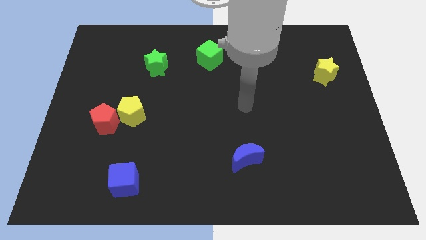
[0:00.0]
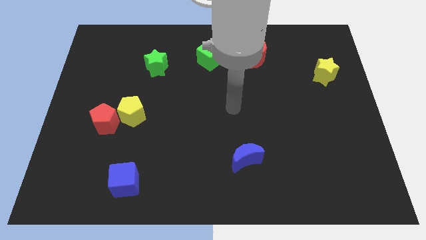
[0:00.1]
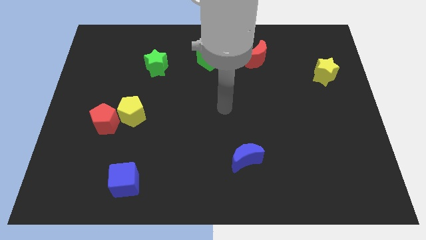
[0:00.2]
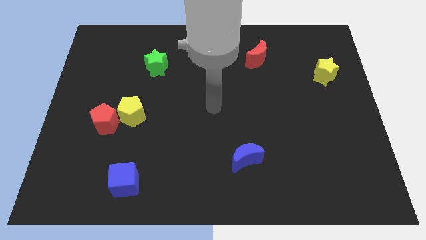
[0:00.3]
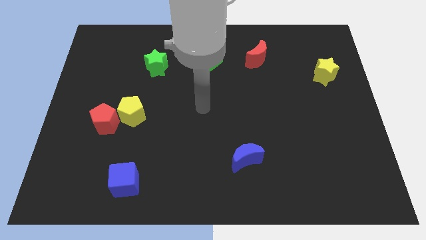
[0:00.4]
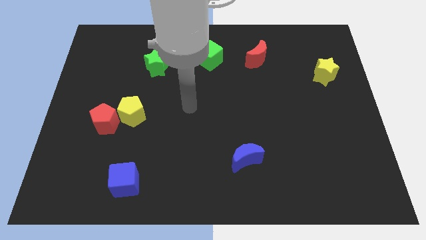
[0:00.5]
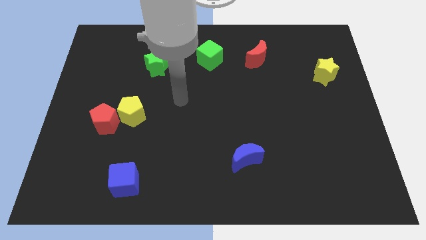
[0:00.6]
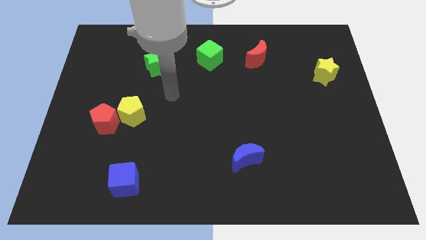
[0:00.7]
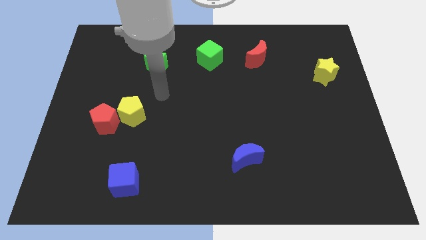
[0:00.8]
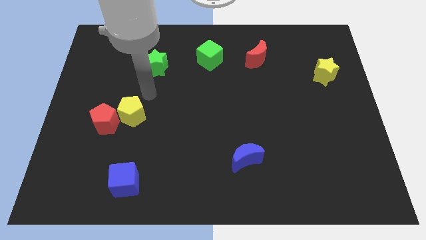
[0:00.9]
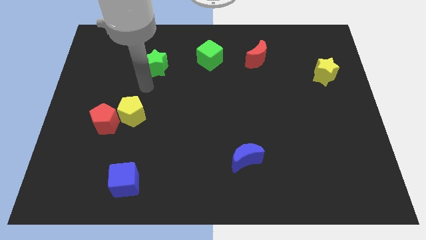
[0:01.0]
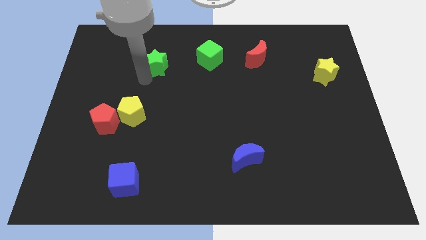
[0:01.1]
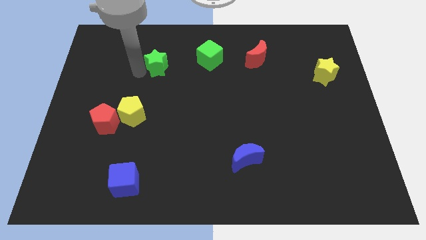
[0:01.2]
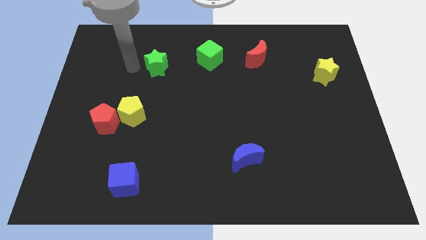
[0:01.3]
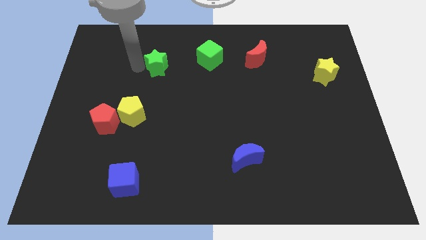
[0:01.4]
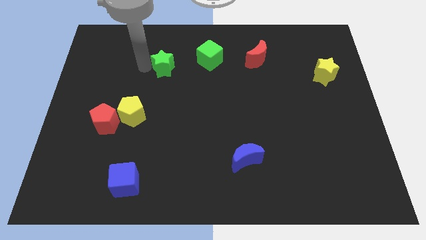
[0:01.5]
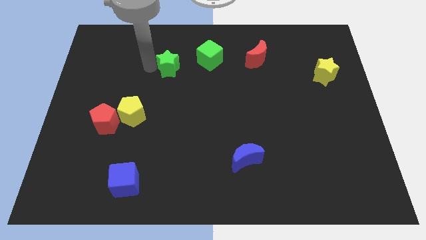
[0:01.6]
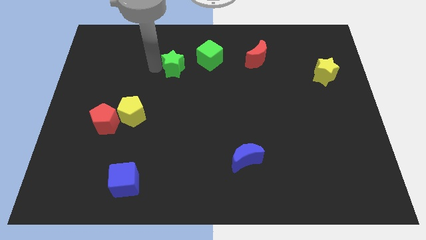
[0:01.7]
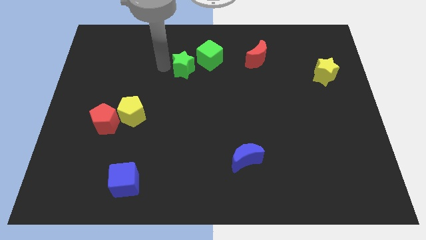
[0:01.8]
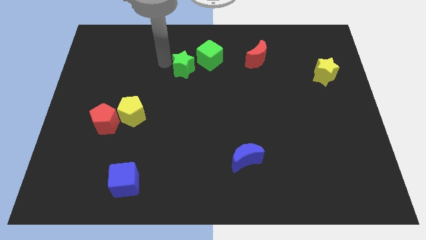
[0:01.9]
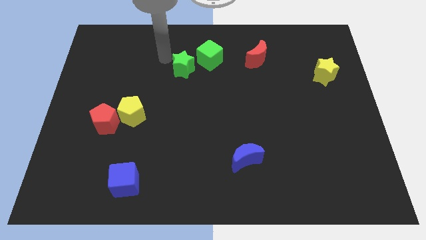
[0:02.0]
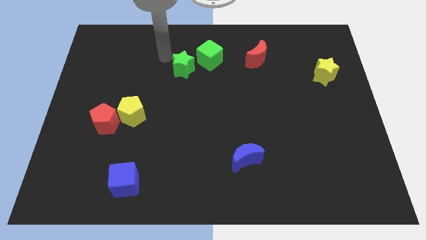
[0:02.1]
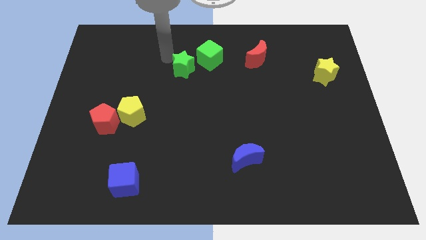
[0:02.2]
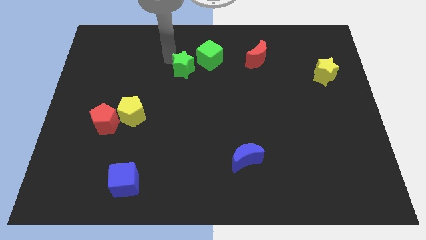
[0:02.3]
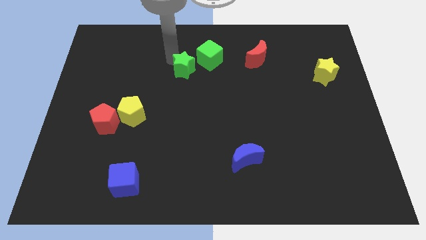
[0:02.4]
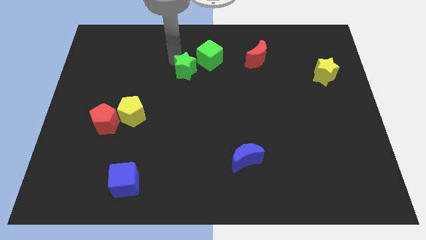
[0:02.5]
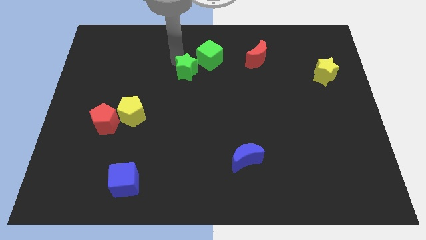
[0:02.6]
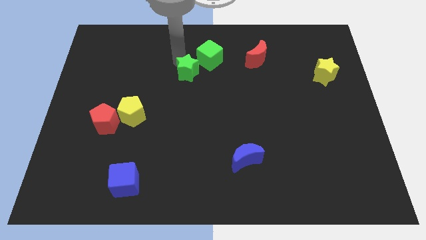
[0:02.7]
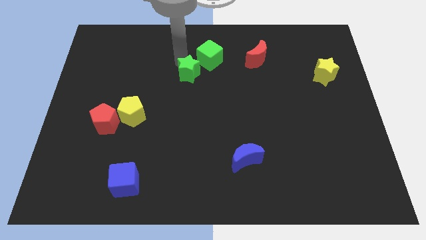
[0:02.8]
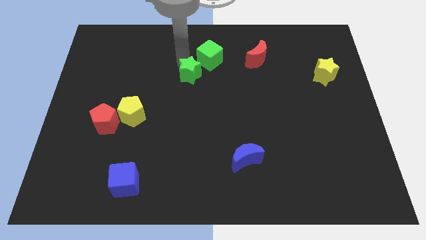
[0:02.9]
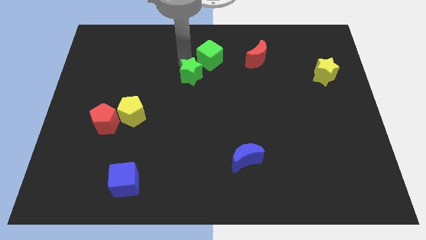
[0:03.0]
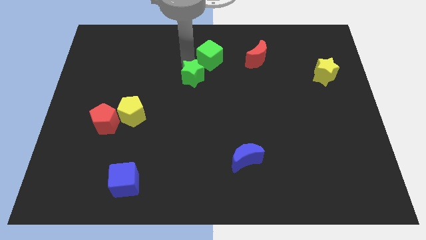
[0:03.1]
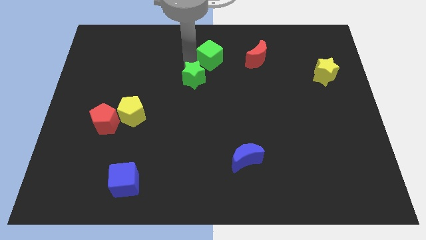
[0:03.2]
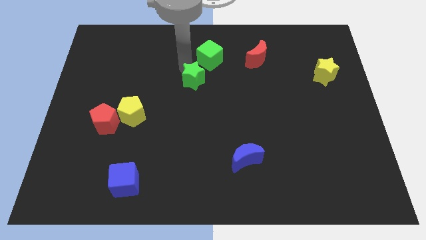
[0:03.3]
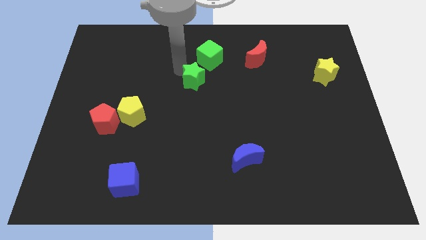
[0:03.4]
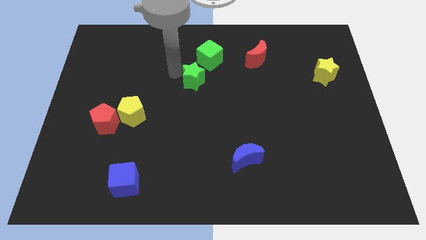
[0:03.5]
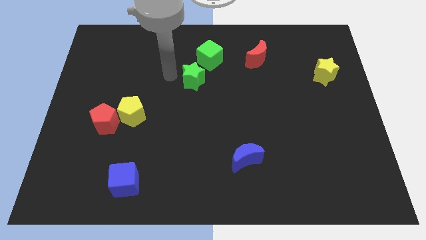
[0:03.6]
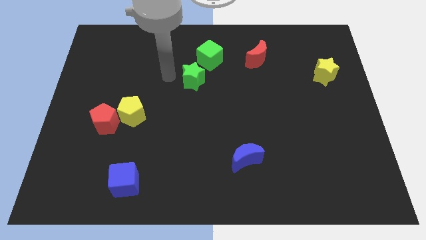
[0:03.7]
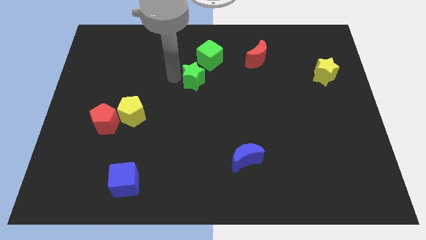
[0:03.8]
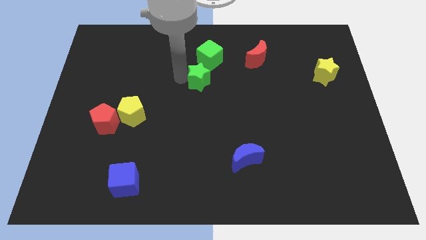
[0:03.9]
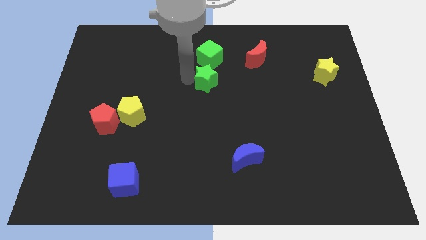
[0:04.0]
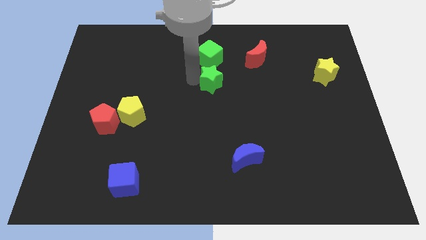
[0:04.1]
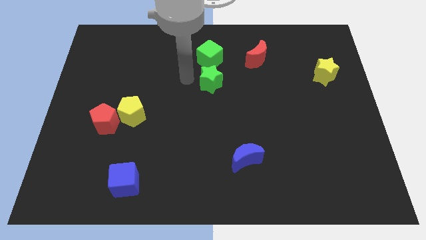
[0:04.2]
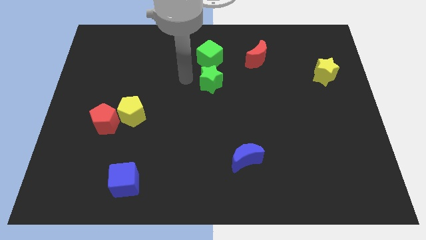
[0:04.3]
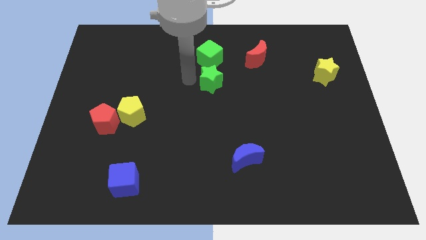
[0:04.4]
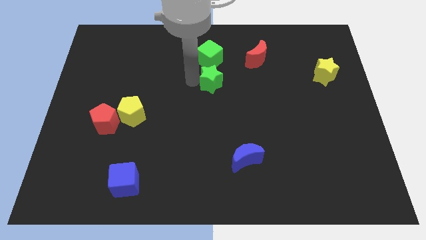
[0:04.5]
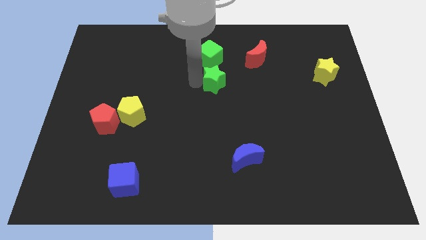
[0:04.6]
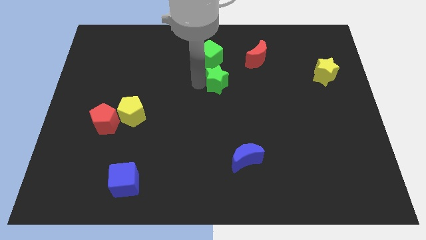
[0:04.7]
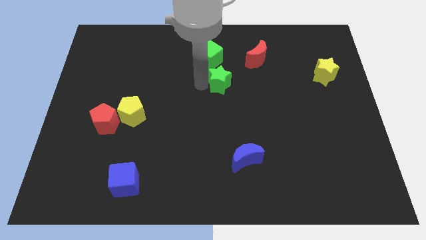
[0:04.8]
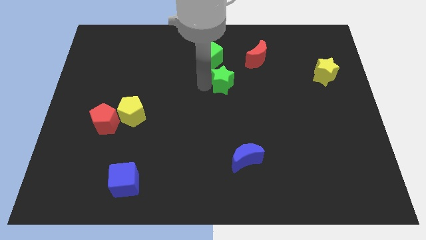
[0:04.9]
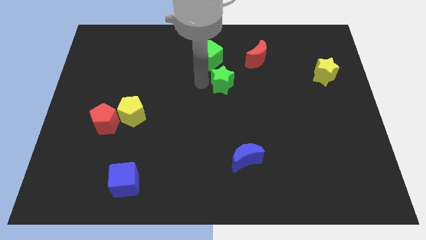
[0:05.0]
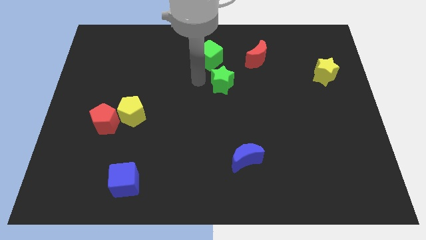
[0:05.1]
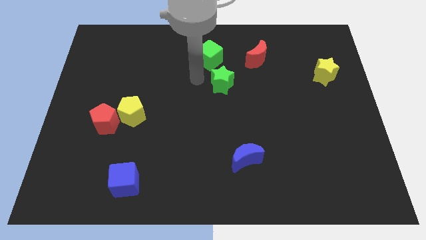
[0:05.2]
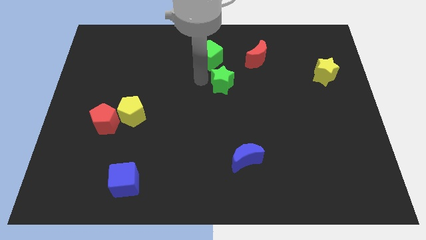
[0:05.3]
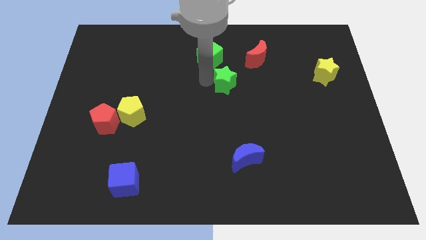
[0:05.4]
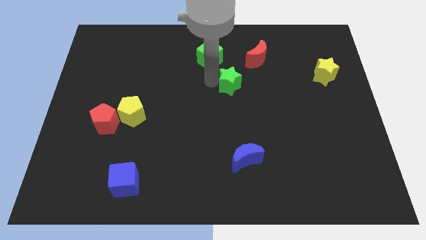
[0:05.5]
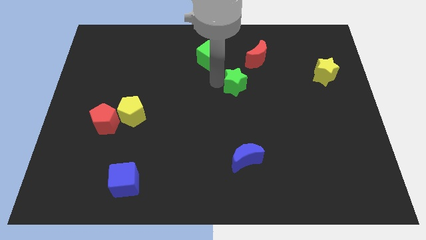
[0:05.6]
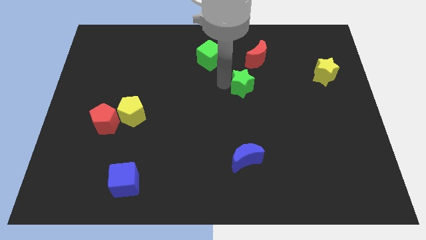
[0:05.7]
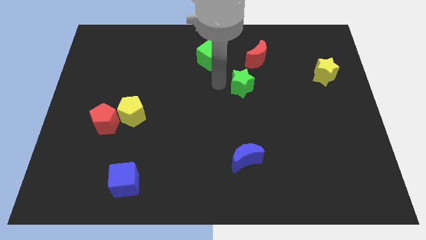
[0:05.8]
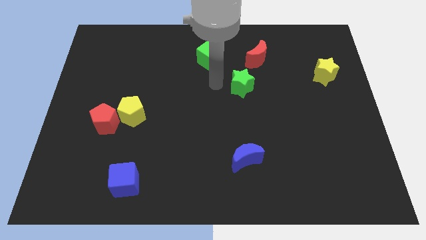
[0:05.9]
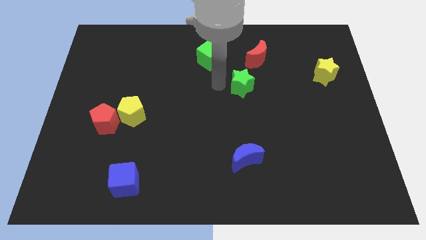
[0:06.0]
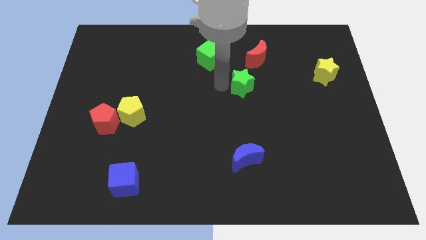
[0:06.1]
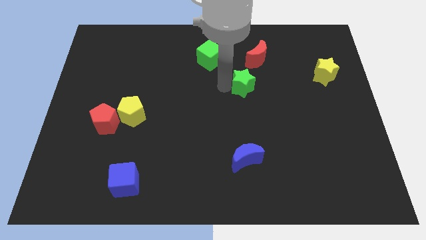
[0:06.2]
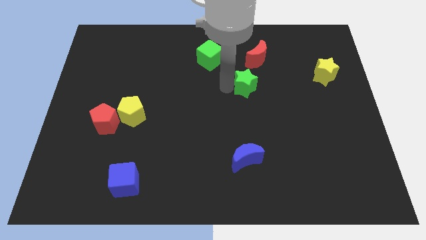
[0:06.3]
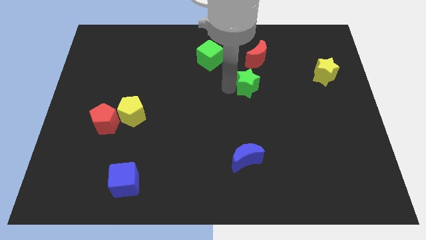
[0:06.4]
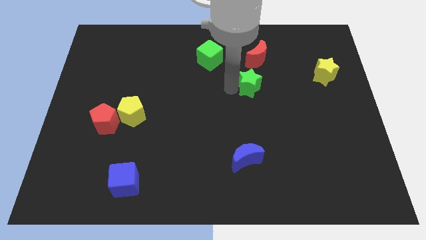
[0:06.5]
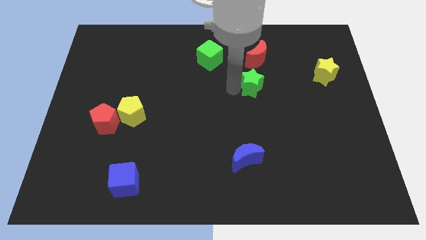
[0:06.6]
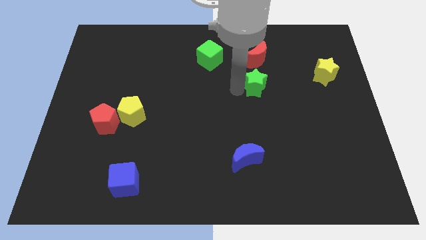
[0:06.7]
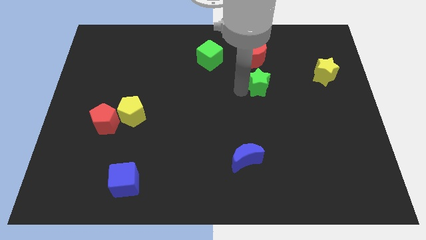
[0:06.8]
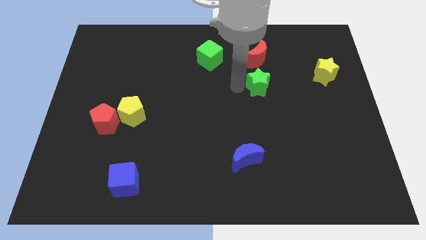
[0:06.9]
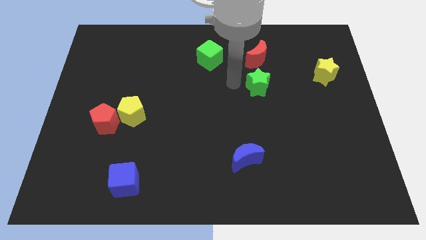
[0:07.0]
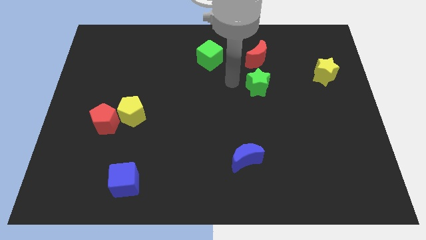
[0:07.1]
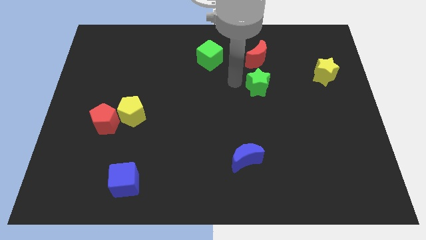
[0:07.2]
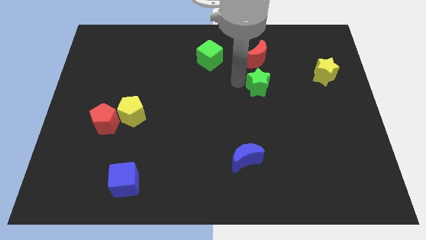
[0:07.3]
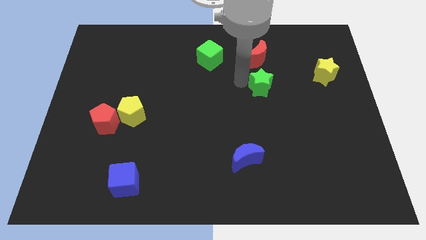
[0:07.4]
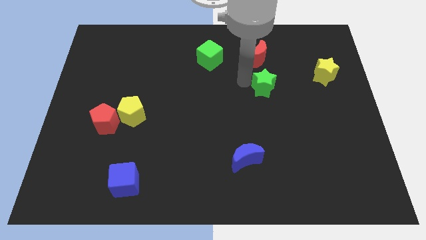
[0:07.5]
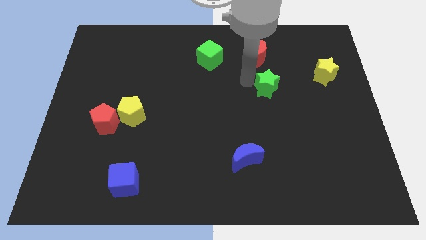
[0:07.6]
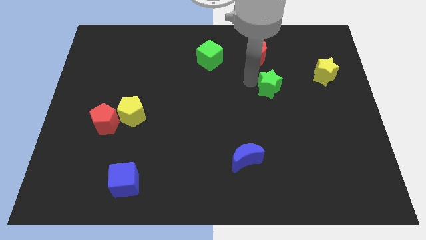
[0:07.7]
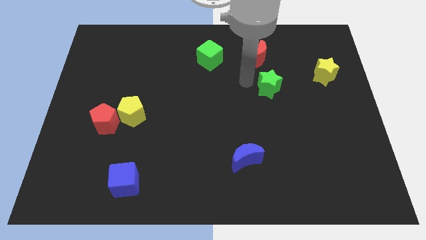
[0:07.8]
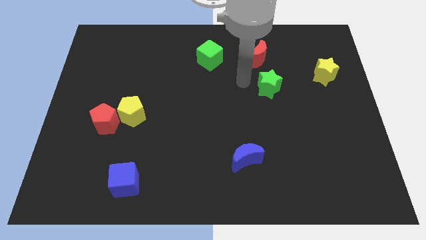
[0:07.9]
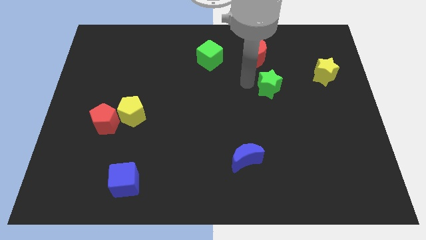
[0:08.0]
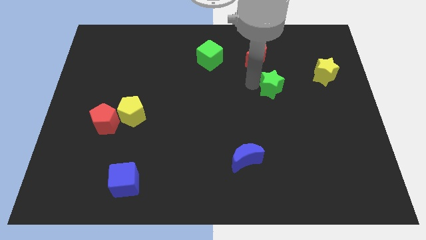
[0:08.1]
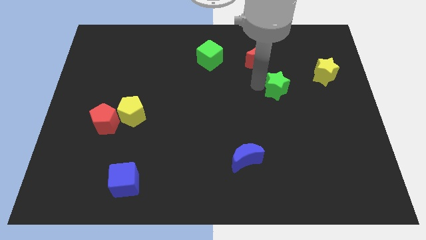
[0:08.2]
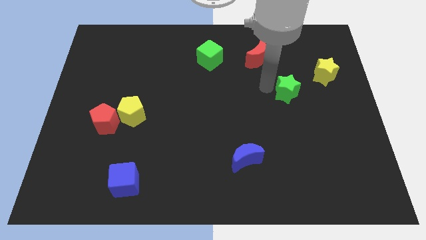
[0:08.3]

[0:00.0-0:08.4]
slide the green star to the bottom left of the yellow star
